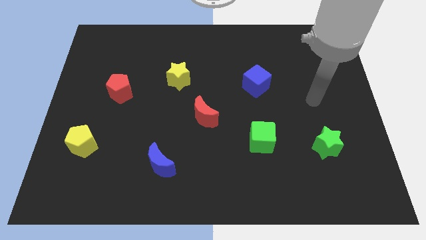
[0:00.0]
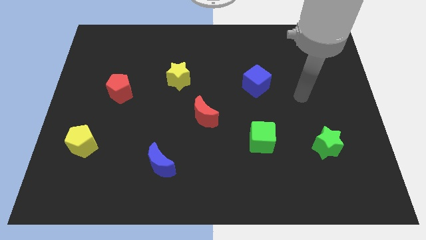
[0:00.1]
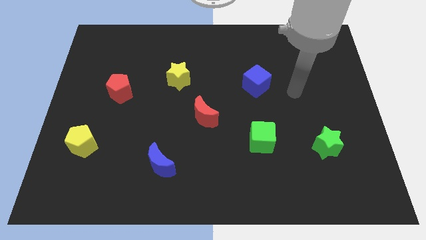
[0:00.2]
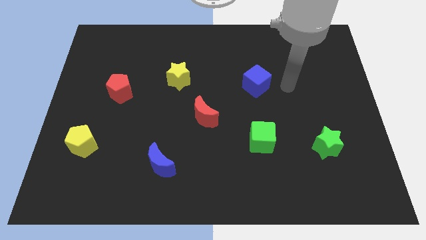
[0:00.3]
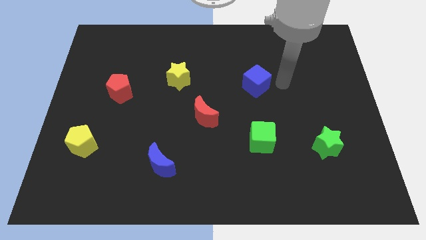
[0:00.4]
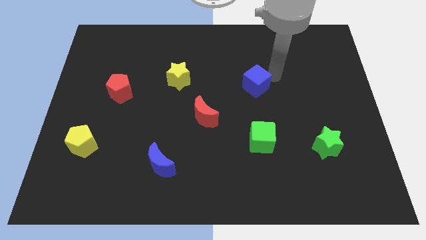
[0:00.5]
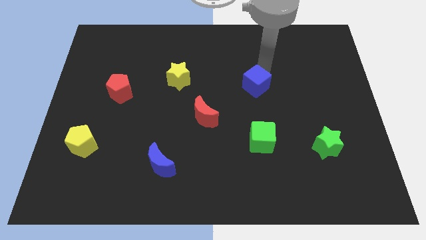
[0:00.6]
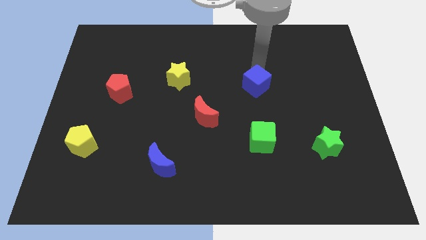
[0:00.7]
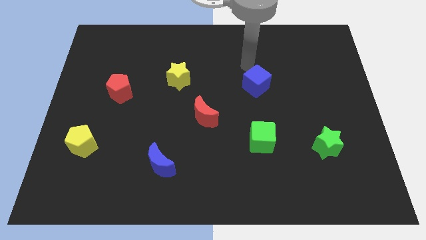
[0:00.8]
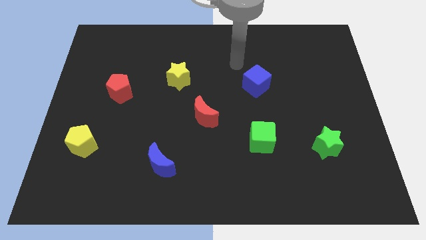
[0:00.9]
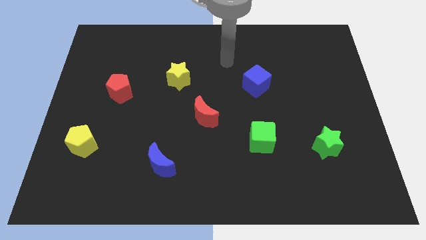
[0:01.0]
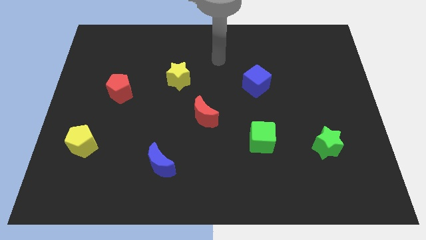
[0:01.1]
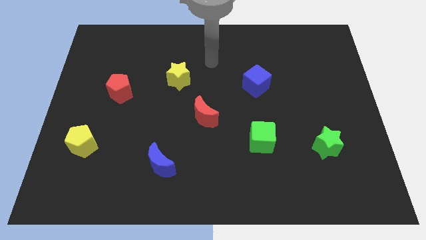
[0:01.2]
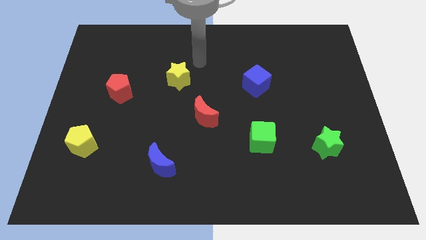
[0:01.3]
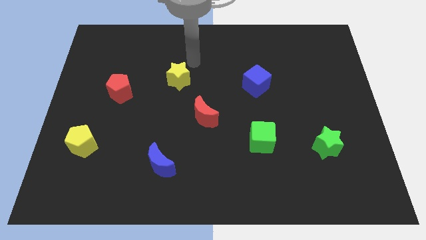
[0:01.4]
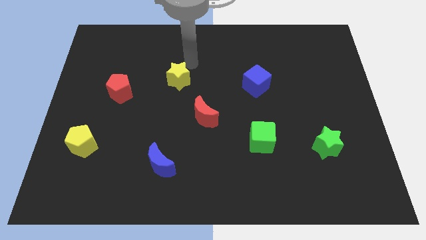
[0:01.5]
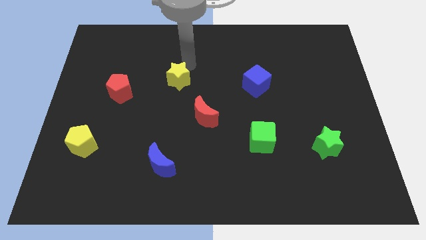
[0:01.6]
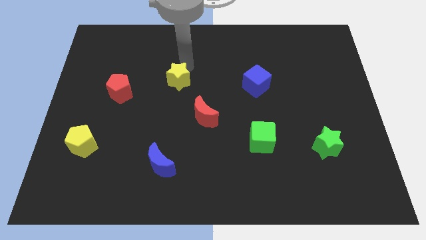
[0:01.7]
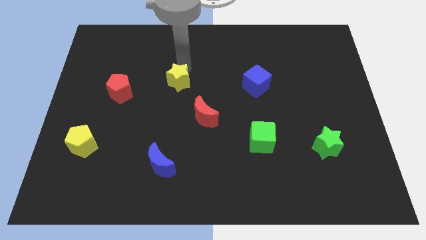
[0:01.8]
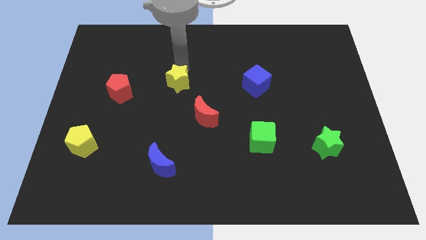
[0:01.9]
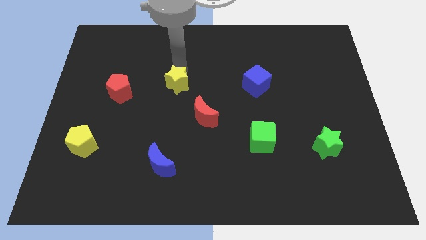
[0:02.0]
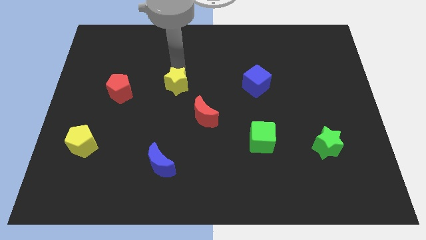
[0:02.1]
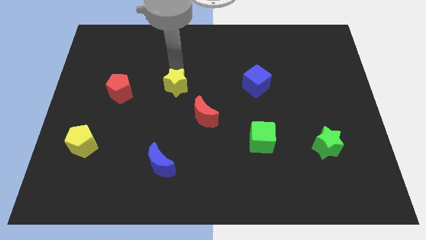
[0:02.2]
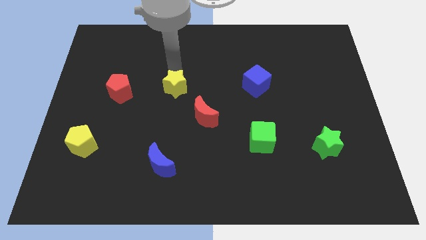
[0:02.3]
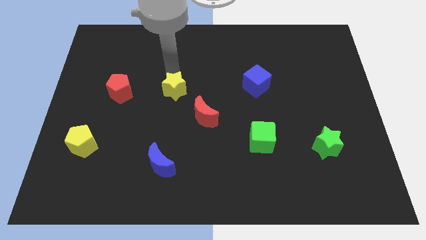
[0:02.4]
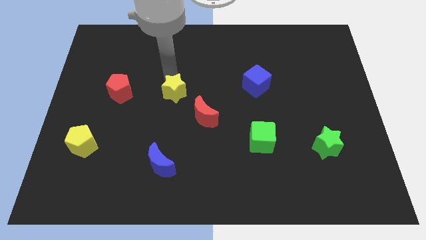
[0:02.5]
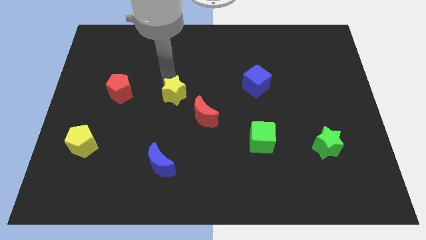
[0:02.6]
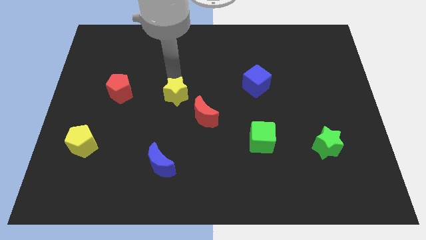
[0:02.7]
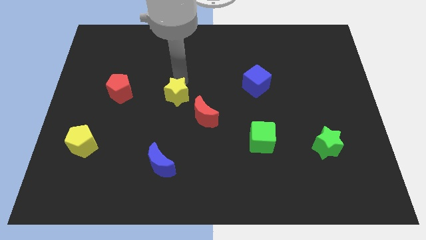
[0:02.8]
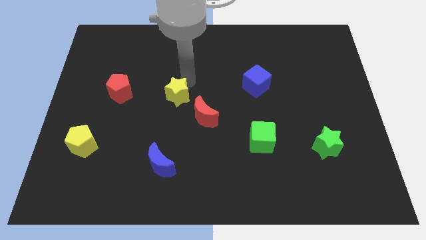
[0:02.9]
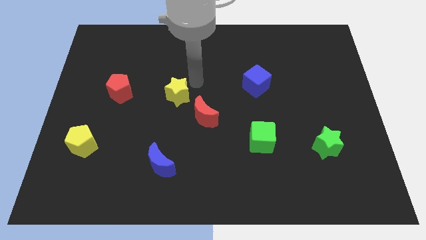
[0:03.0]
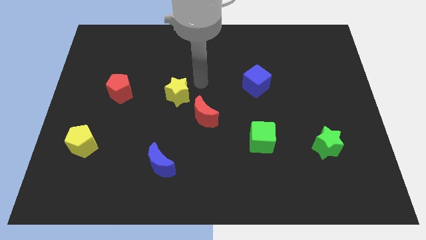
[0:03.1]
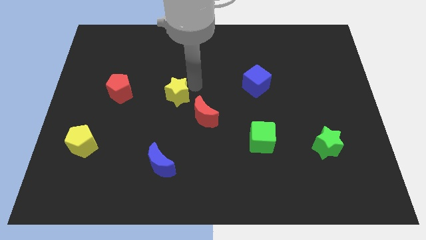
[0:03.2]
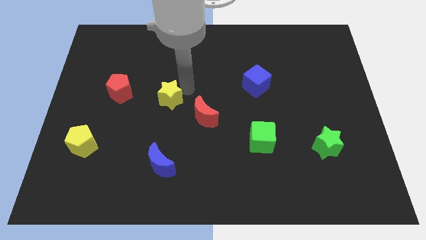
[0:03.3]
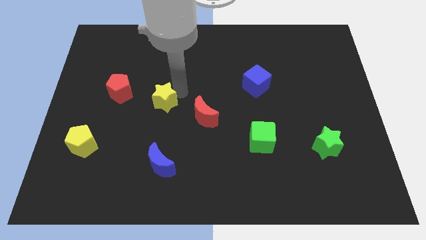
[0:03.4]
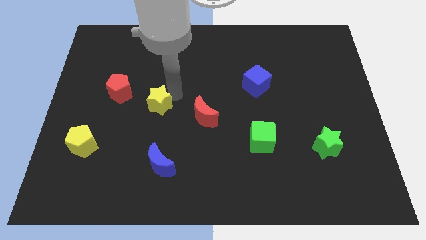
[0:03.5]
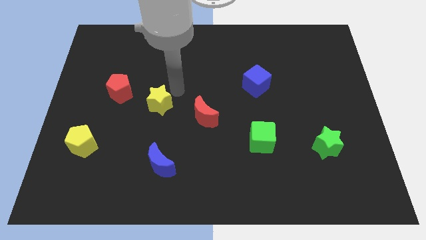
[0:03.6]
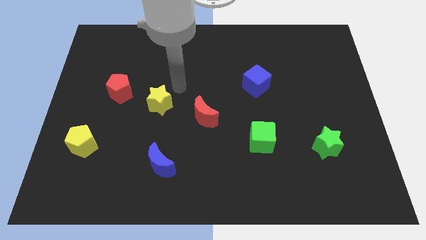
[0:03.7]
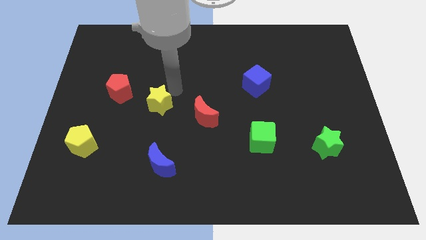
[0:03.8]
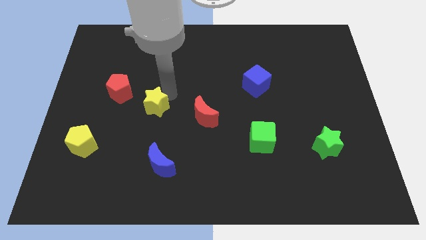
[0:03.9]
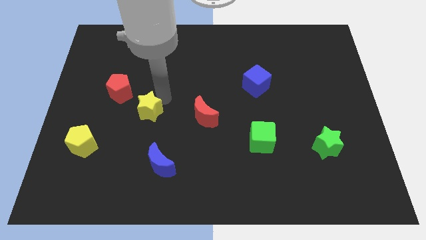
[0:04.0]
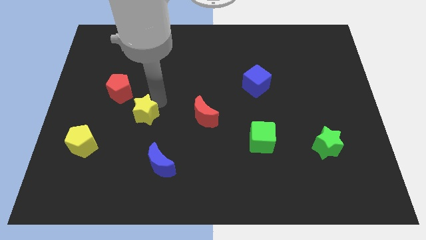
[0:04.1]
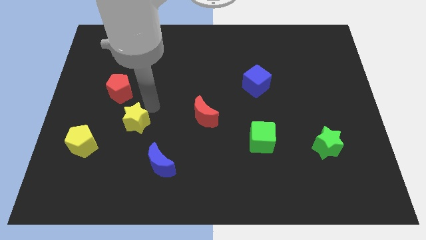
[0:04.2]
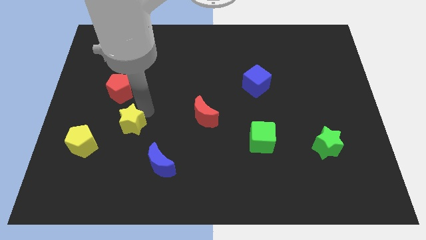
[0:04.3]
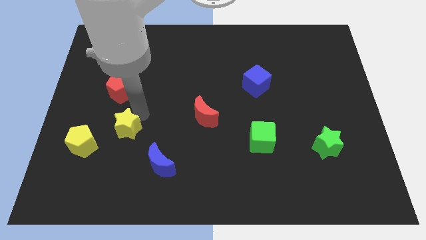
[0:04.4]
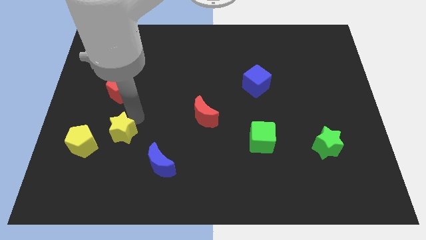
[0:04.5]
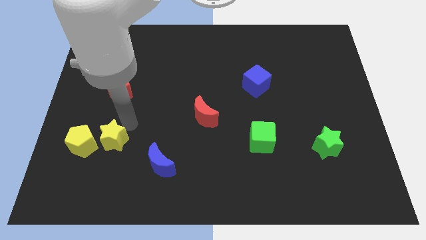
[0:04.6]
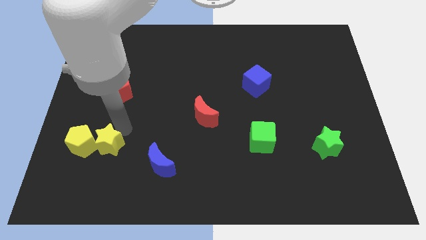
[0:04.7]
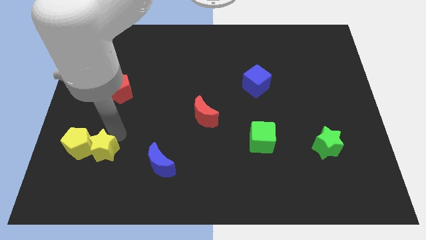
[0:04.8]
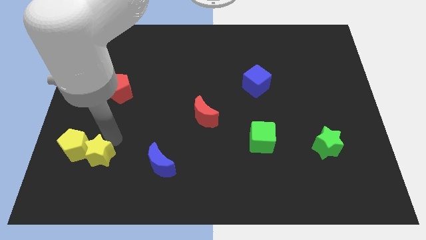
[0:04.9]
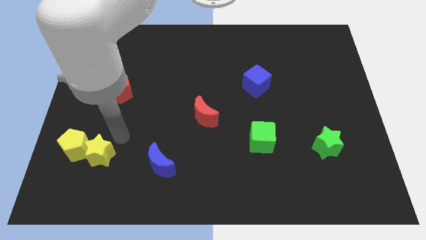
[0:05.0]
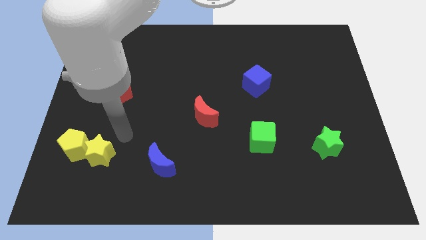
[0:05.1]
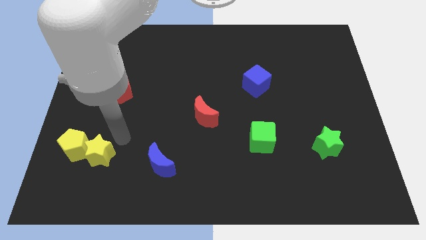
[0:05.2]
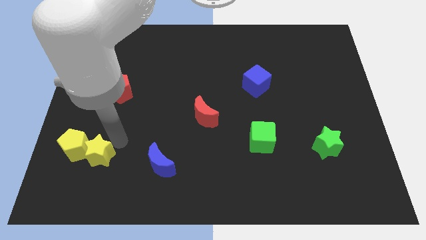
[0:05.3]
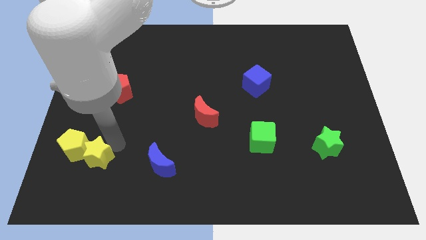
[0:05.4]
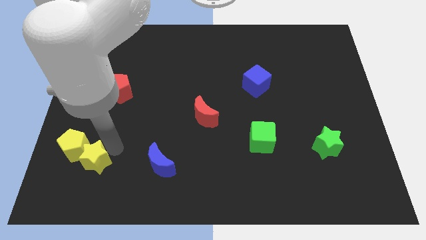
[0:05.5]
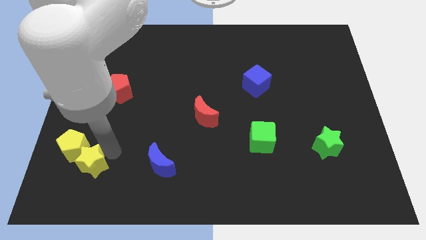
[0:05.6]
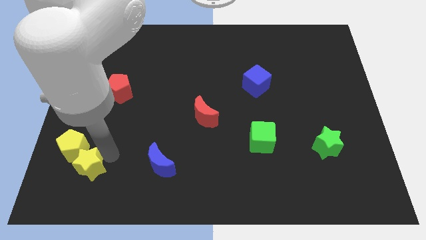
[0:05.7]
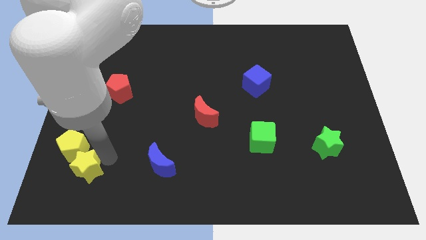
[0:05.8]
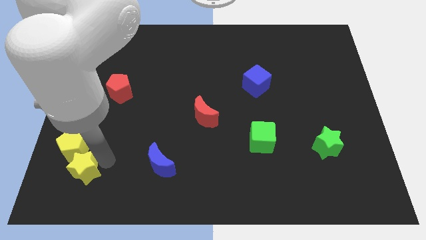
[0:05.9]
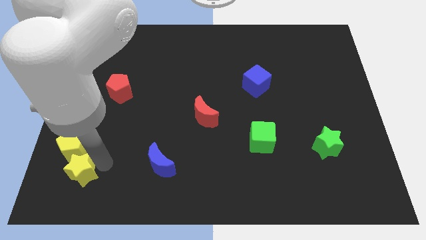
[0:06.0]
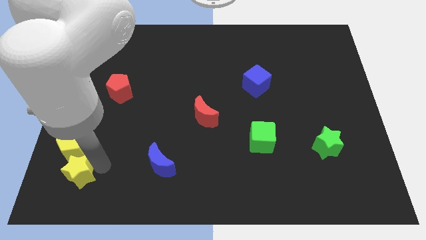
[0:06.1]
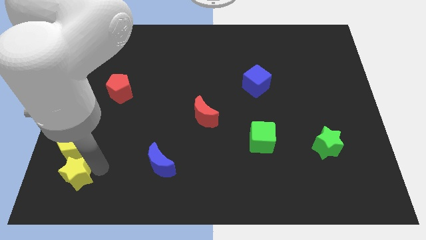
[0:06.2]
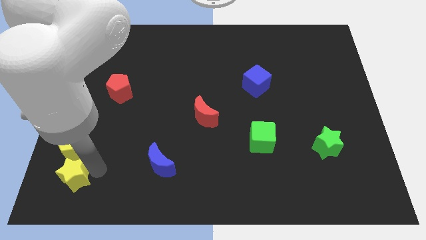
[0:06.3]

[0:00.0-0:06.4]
push the yellow star to the bottom left of the board
